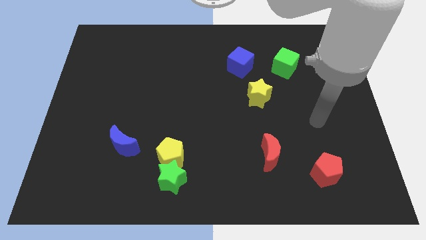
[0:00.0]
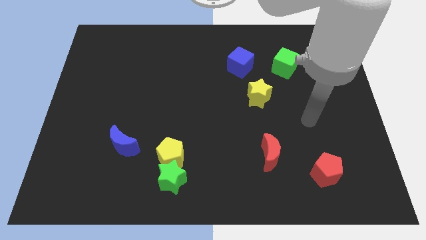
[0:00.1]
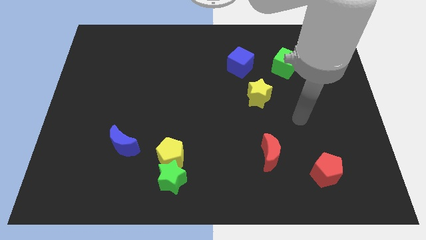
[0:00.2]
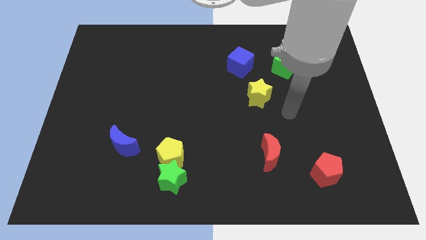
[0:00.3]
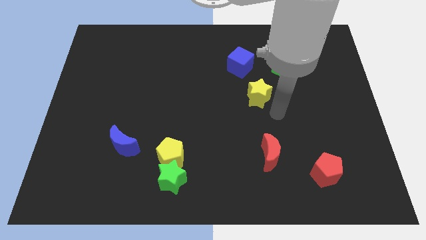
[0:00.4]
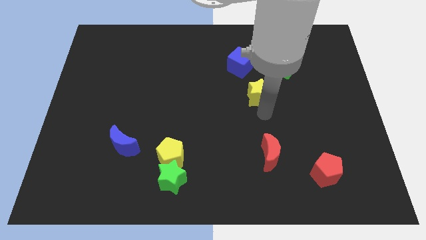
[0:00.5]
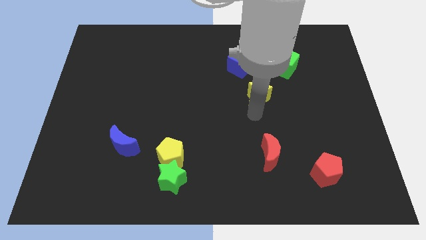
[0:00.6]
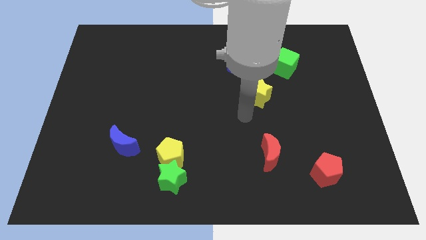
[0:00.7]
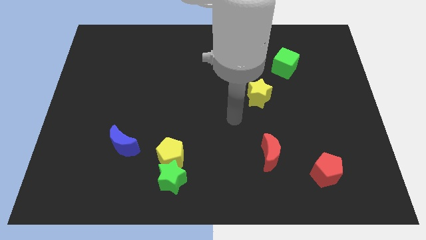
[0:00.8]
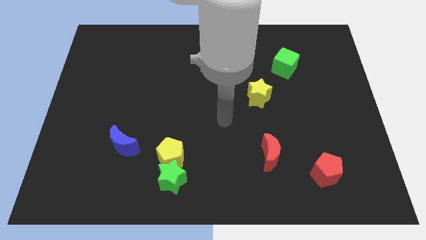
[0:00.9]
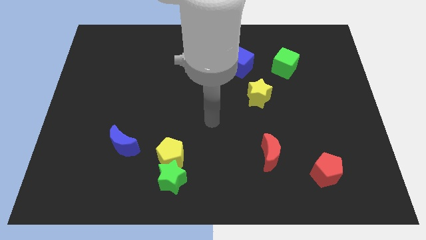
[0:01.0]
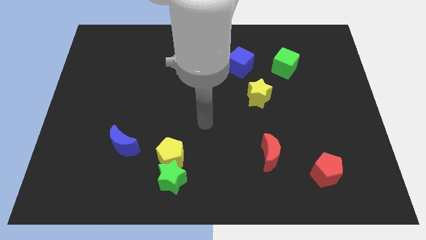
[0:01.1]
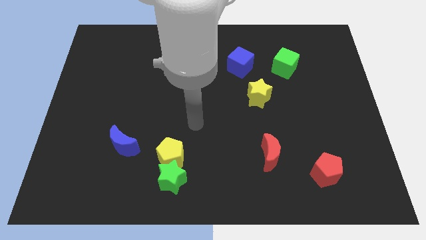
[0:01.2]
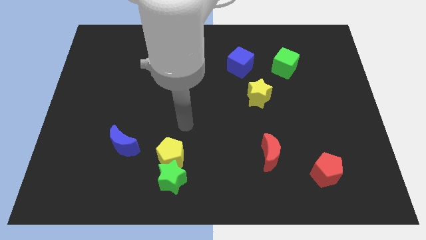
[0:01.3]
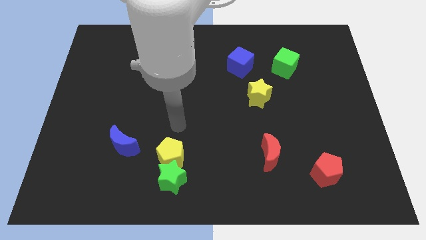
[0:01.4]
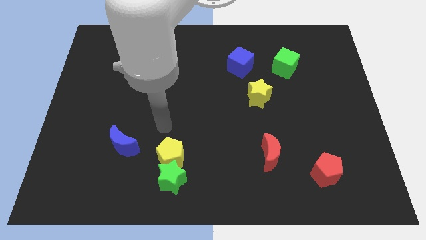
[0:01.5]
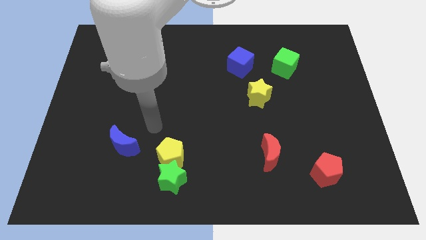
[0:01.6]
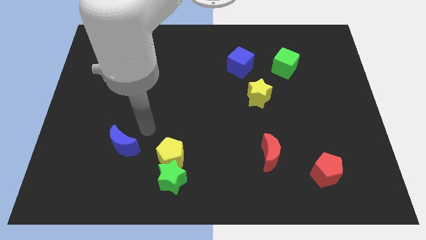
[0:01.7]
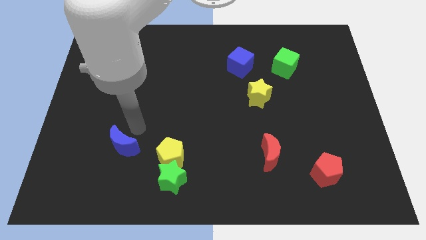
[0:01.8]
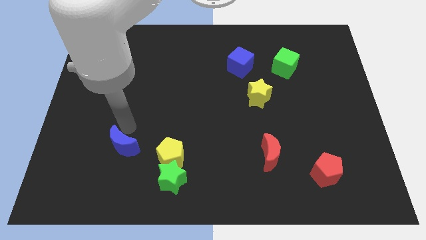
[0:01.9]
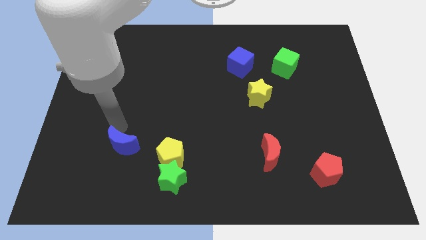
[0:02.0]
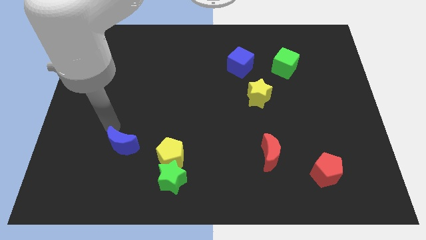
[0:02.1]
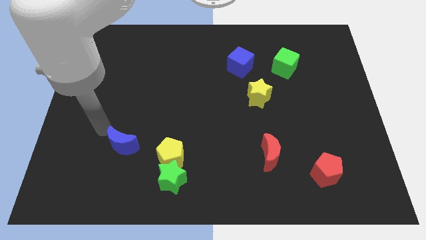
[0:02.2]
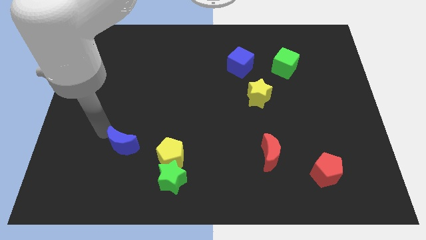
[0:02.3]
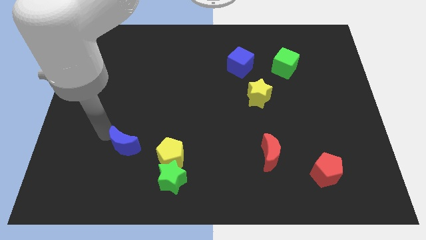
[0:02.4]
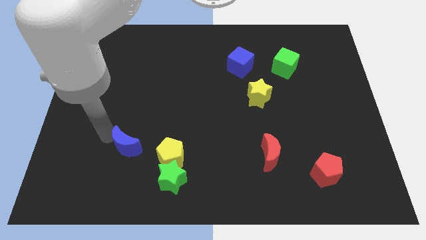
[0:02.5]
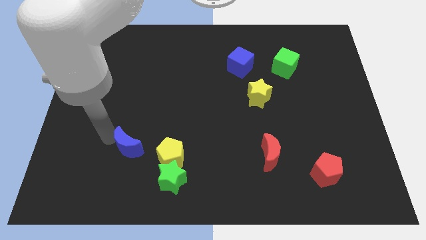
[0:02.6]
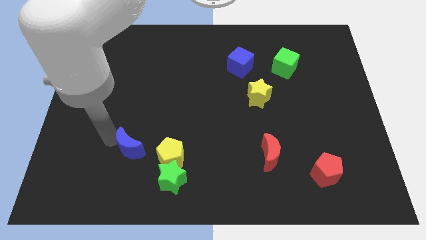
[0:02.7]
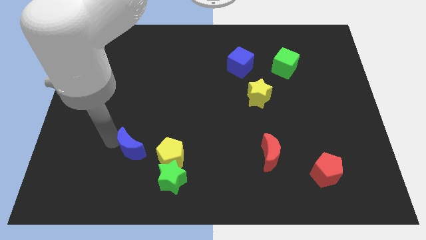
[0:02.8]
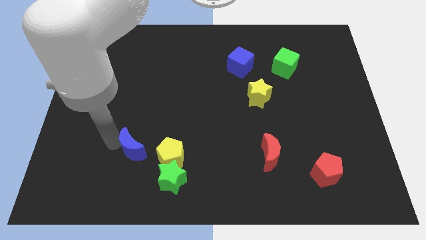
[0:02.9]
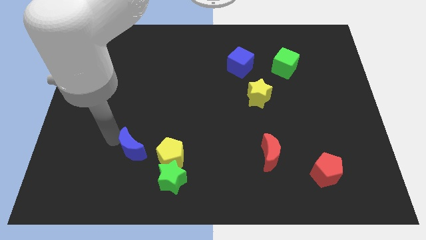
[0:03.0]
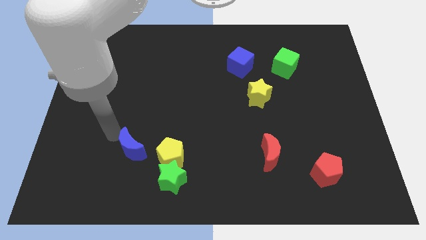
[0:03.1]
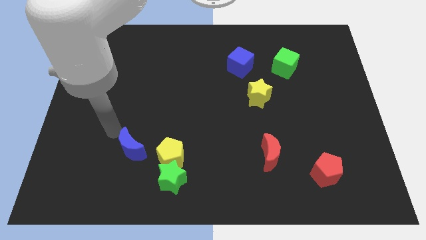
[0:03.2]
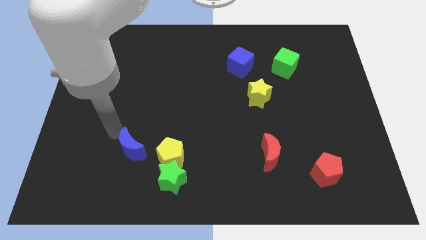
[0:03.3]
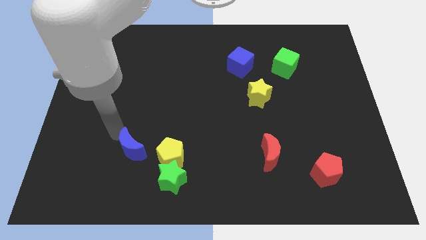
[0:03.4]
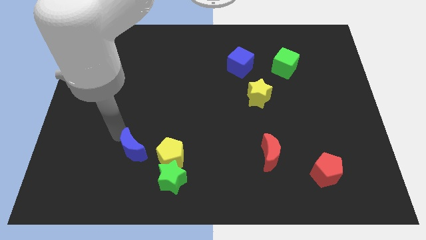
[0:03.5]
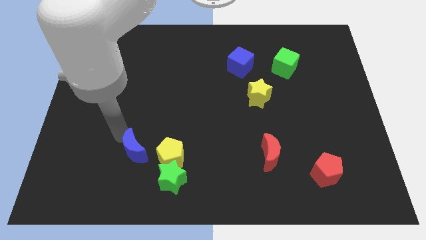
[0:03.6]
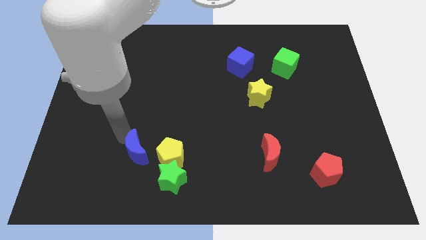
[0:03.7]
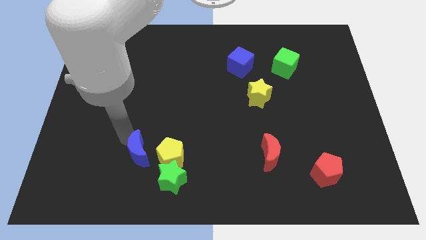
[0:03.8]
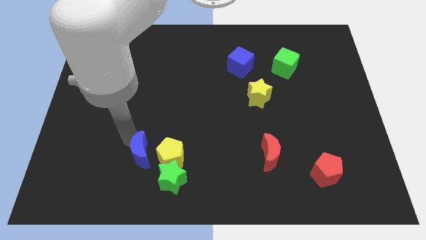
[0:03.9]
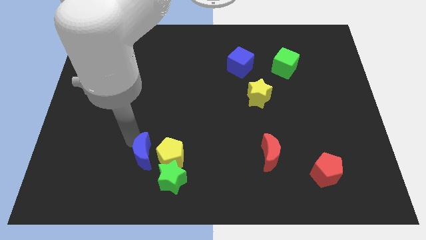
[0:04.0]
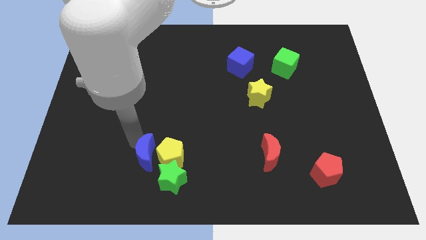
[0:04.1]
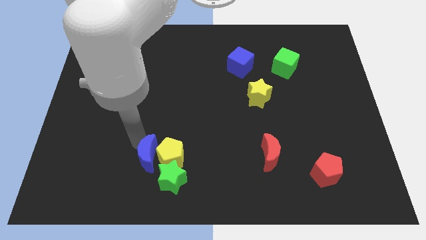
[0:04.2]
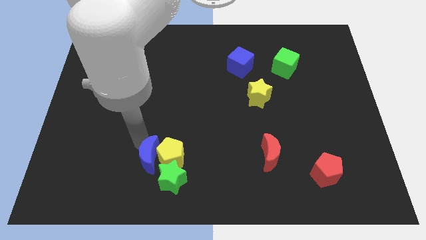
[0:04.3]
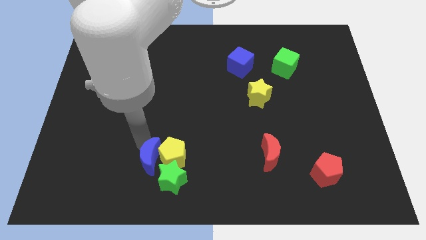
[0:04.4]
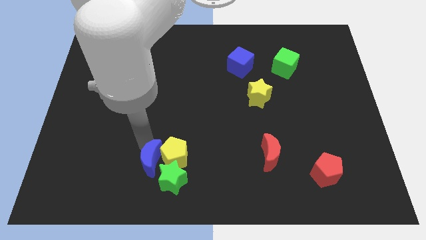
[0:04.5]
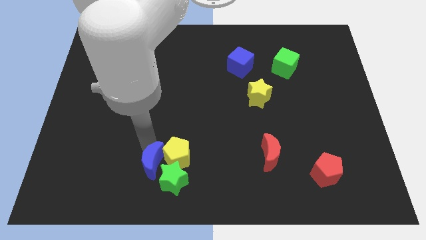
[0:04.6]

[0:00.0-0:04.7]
put the blue moon close to the green star

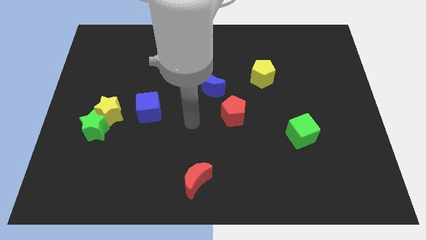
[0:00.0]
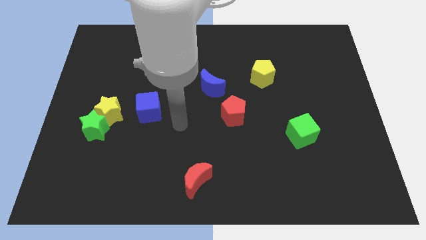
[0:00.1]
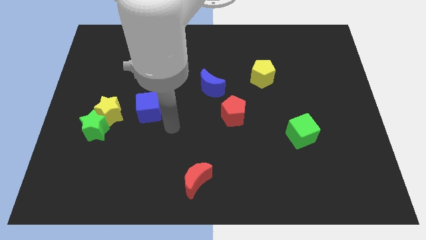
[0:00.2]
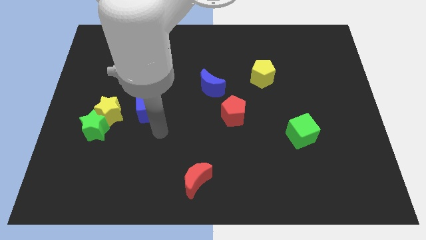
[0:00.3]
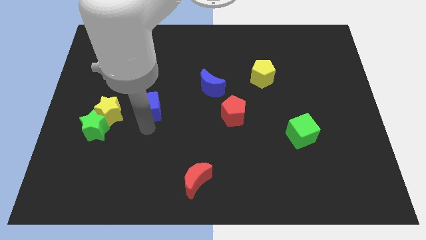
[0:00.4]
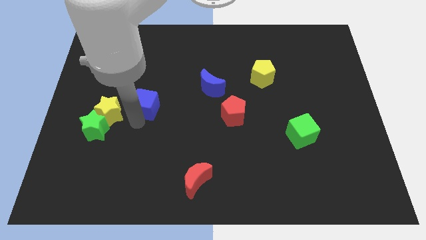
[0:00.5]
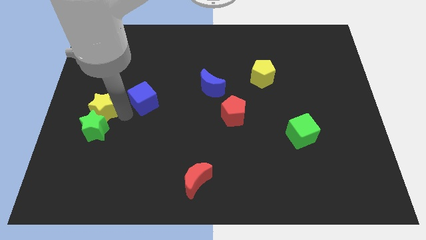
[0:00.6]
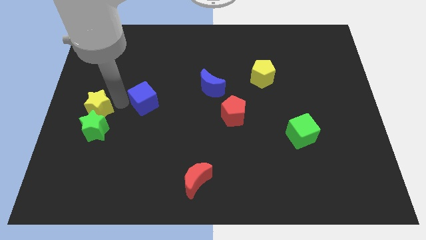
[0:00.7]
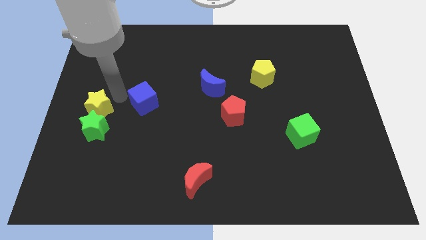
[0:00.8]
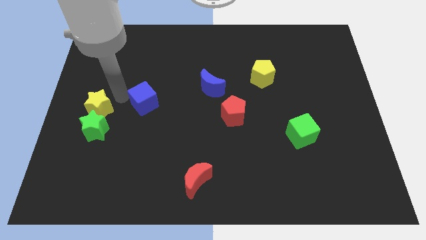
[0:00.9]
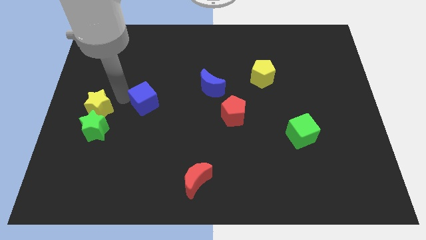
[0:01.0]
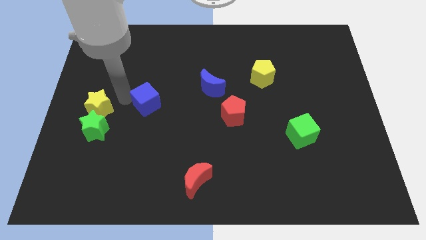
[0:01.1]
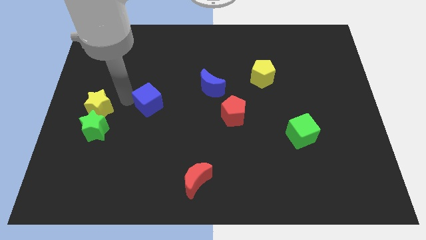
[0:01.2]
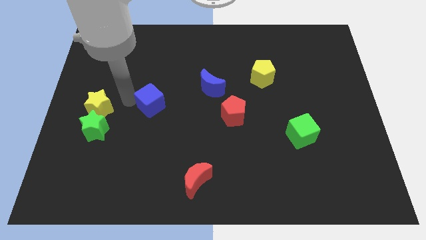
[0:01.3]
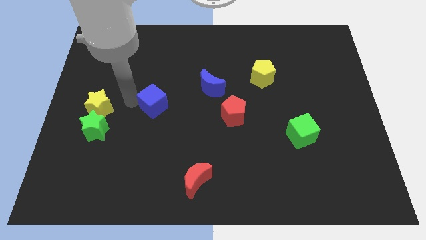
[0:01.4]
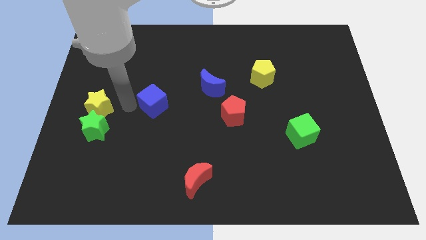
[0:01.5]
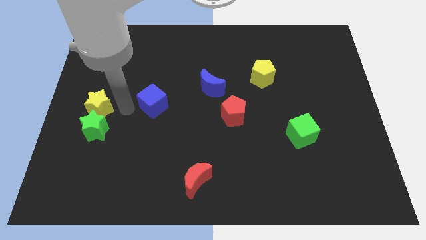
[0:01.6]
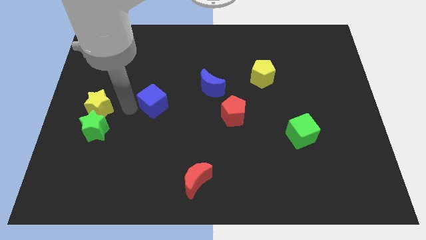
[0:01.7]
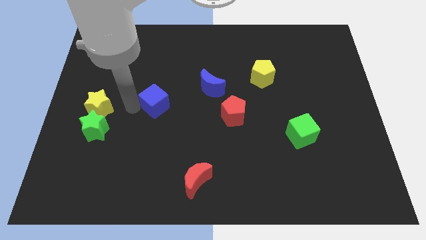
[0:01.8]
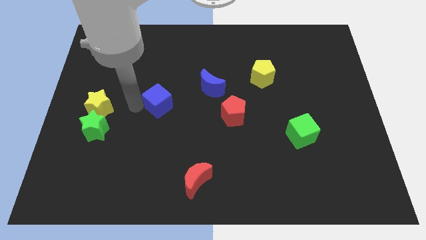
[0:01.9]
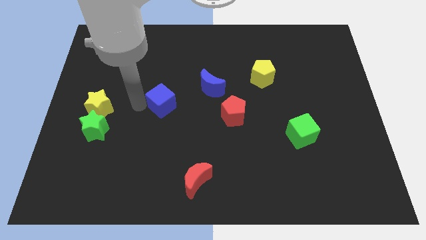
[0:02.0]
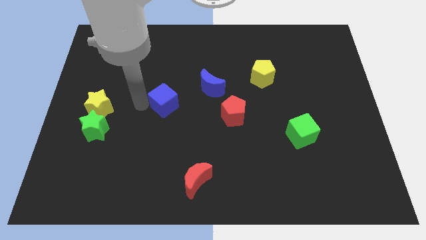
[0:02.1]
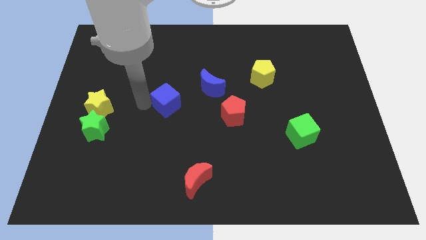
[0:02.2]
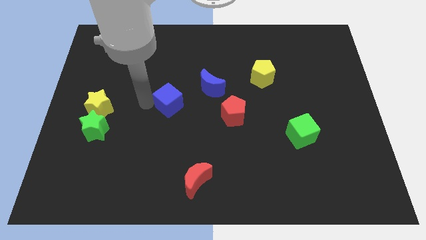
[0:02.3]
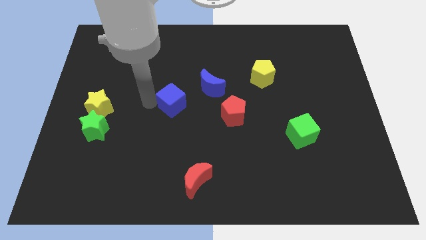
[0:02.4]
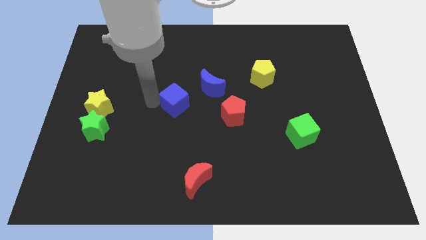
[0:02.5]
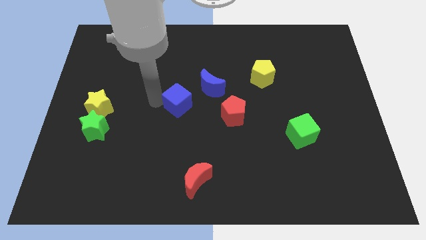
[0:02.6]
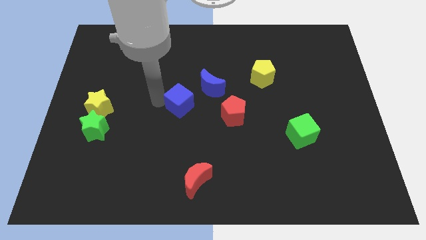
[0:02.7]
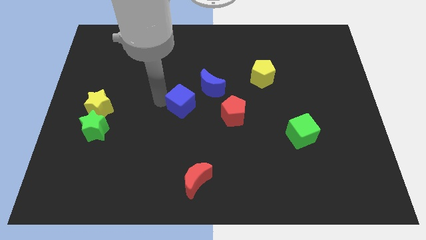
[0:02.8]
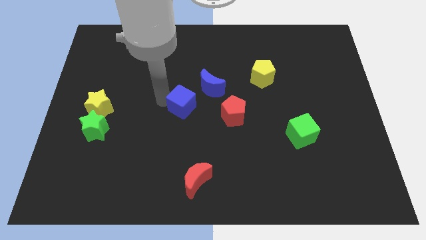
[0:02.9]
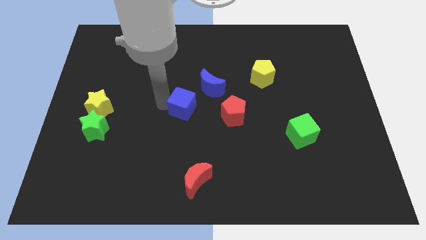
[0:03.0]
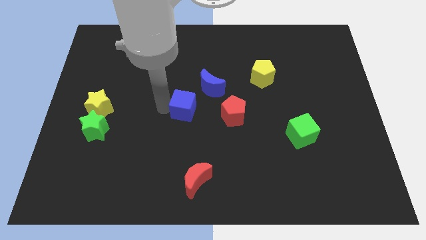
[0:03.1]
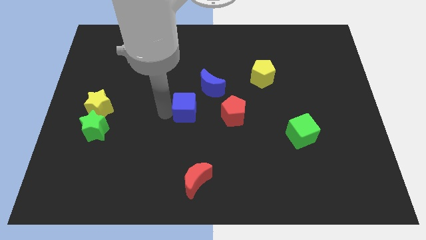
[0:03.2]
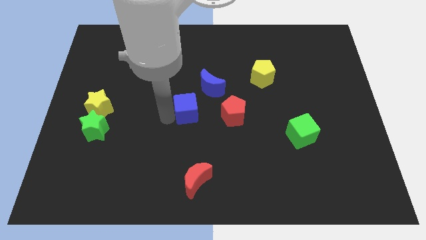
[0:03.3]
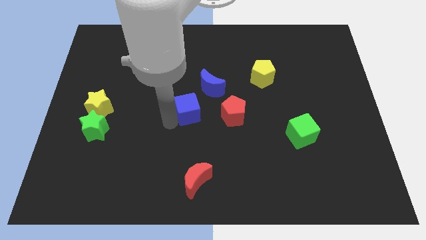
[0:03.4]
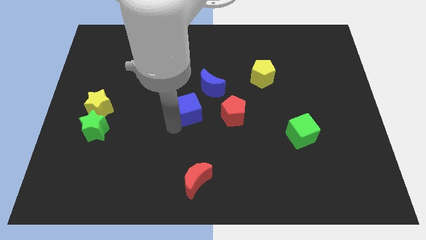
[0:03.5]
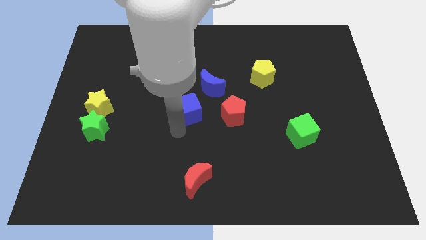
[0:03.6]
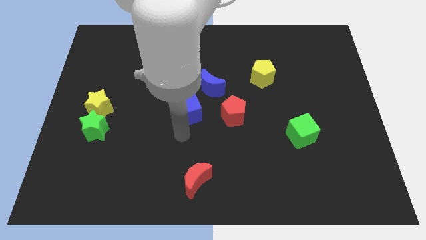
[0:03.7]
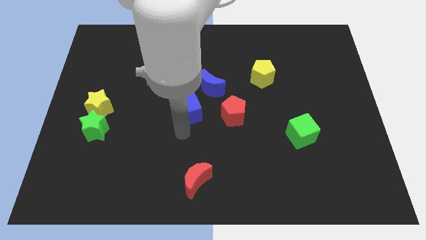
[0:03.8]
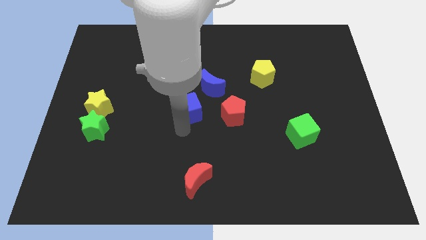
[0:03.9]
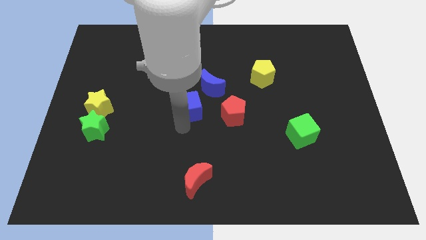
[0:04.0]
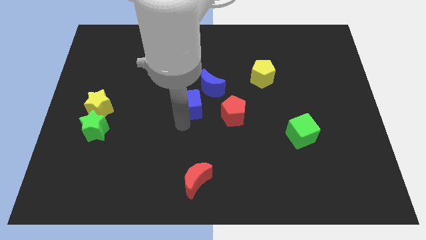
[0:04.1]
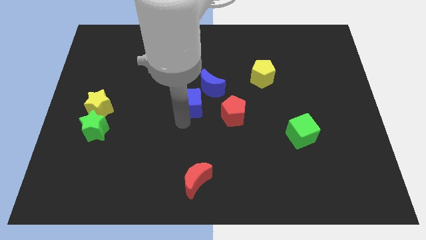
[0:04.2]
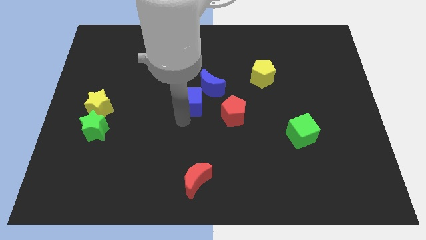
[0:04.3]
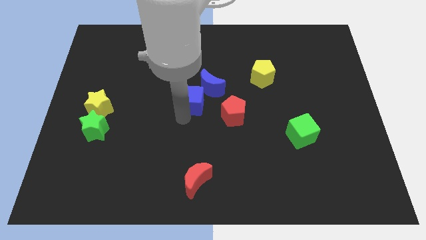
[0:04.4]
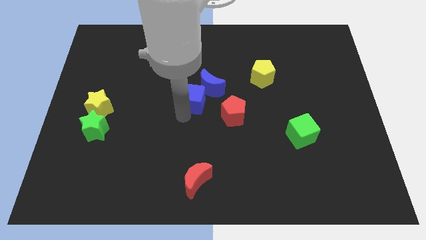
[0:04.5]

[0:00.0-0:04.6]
put the blue cube close to the blue moon
